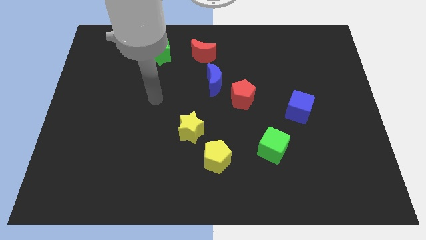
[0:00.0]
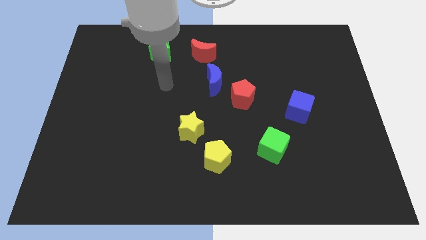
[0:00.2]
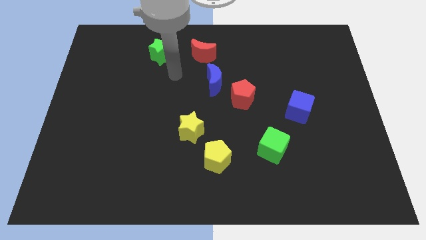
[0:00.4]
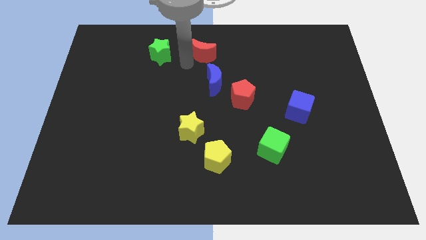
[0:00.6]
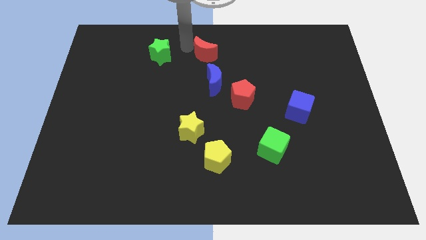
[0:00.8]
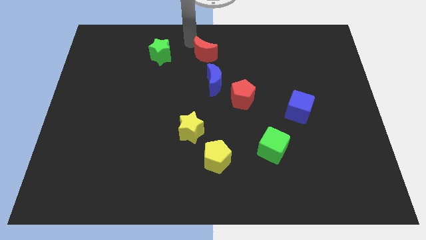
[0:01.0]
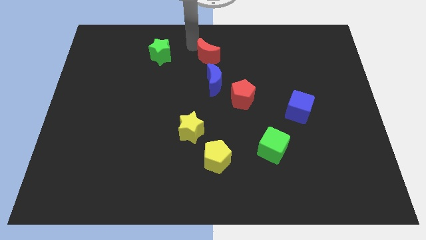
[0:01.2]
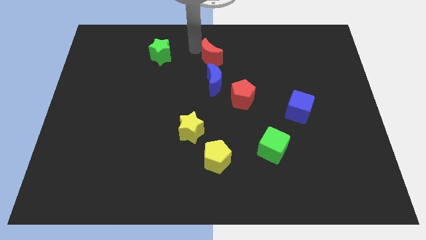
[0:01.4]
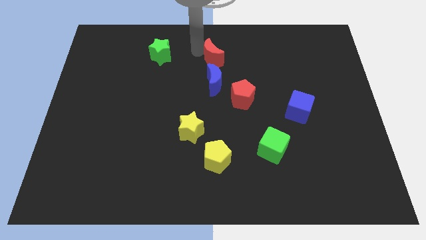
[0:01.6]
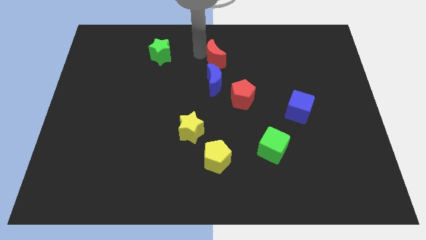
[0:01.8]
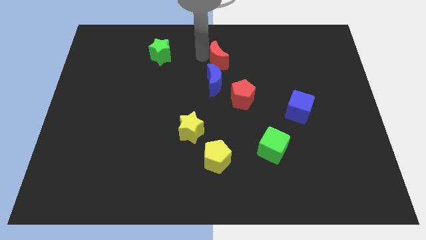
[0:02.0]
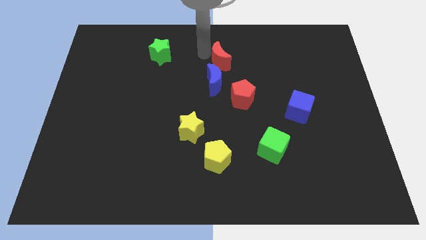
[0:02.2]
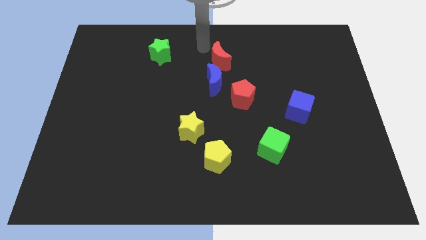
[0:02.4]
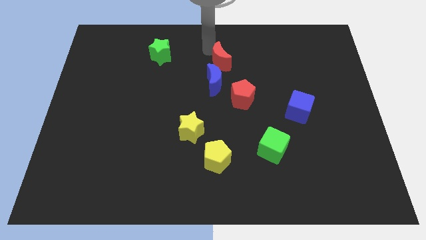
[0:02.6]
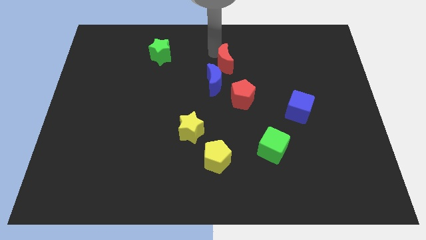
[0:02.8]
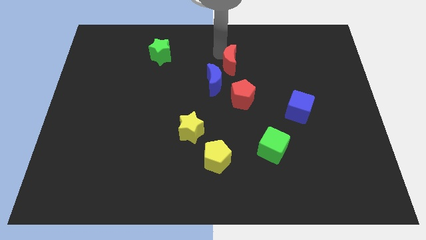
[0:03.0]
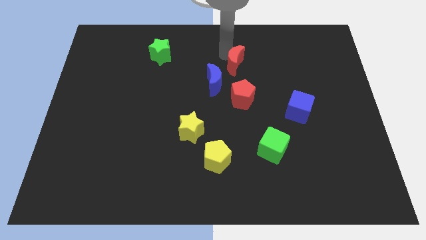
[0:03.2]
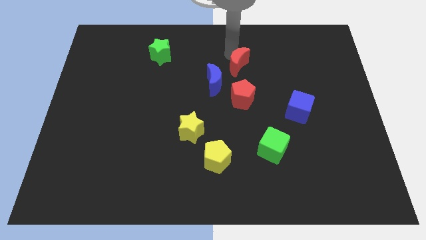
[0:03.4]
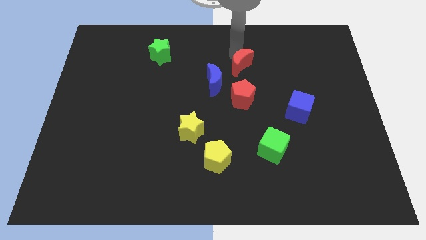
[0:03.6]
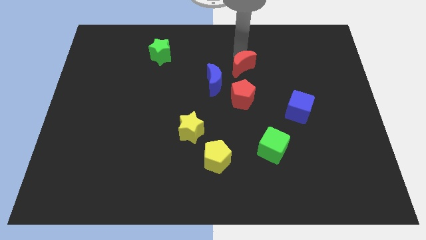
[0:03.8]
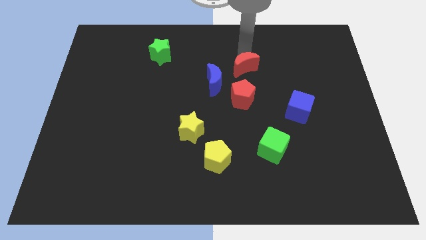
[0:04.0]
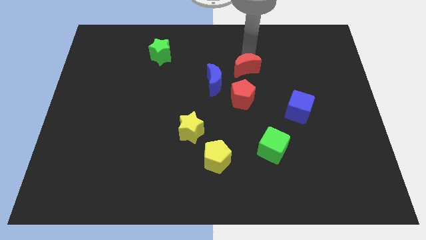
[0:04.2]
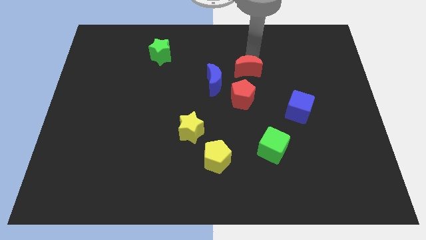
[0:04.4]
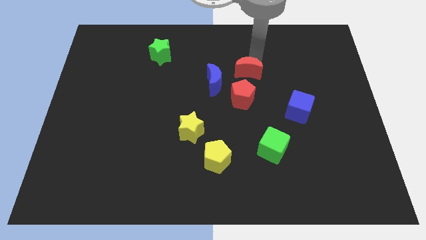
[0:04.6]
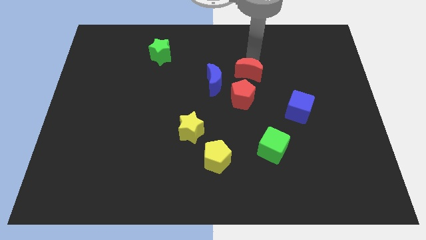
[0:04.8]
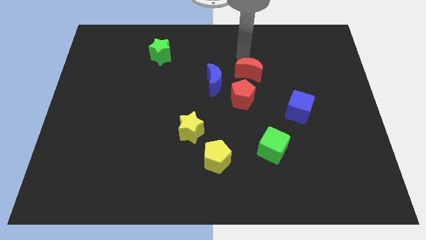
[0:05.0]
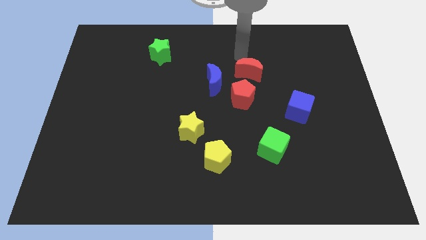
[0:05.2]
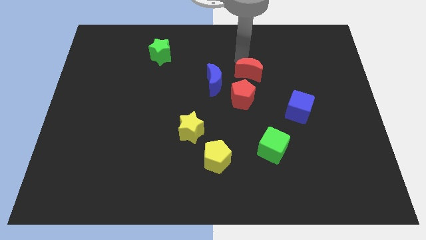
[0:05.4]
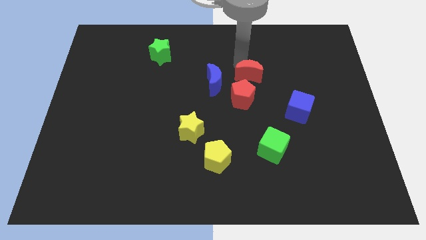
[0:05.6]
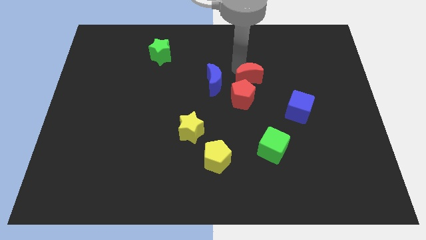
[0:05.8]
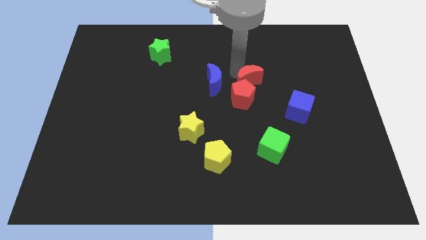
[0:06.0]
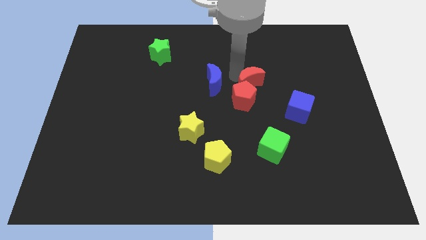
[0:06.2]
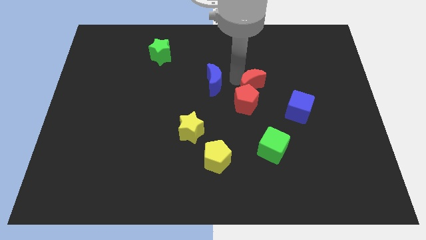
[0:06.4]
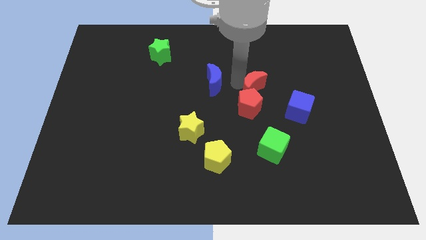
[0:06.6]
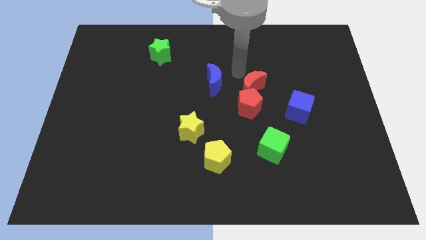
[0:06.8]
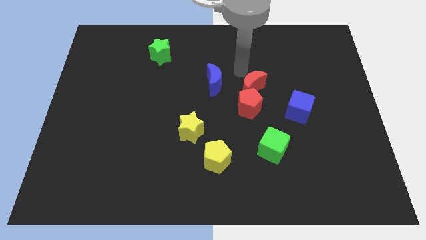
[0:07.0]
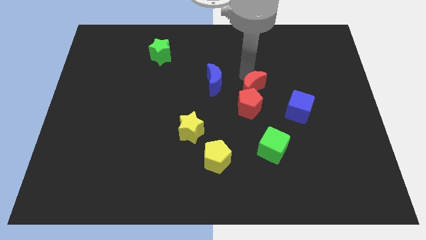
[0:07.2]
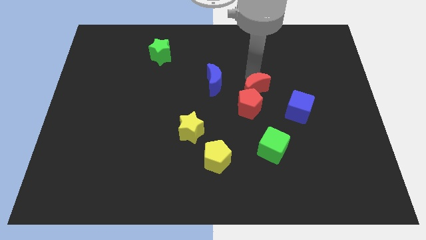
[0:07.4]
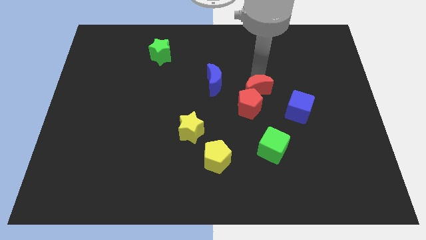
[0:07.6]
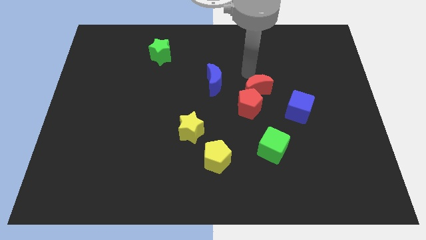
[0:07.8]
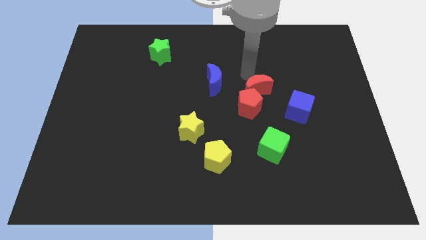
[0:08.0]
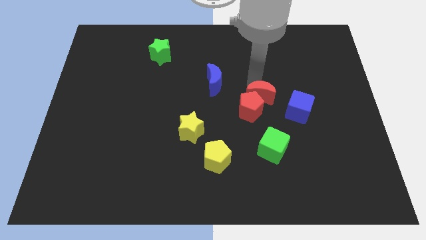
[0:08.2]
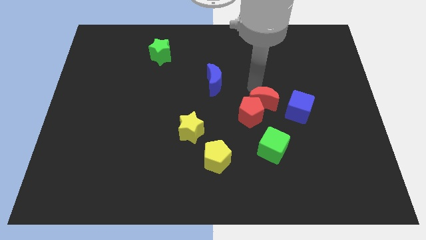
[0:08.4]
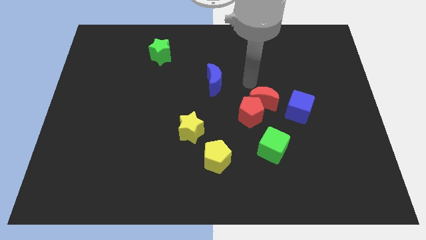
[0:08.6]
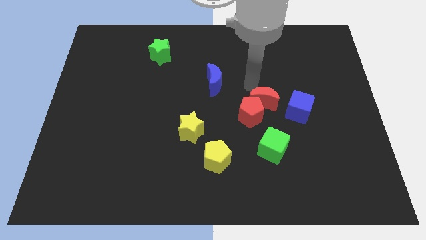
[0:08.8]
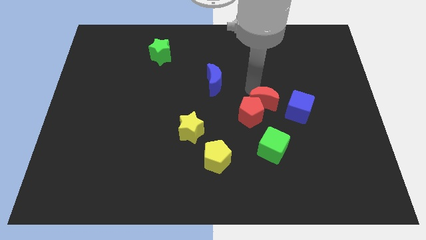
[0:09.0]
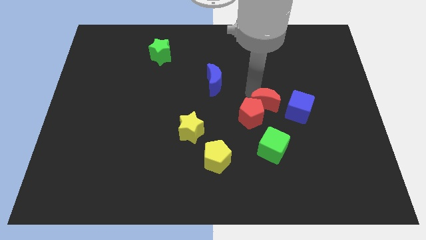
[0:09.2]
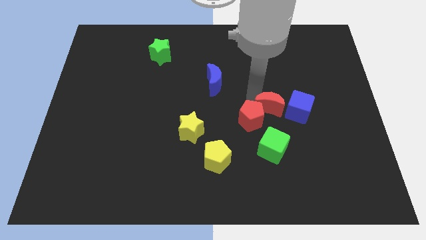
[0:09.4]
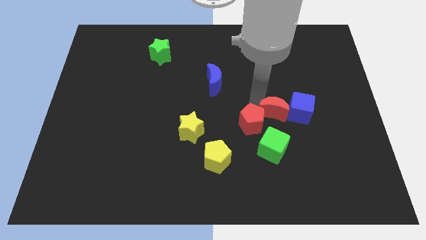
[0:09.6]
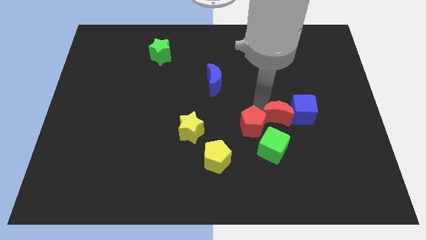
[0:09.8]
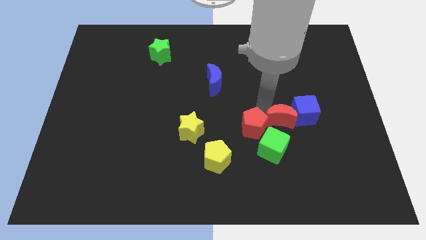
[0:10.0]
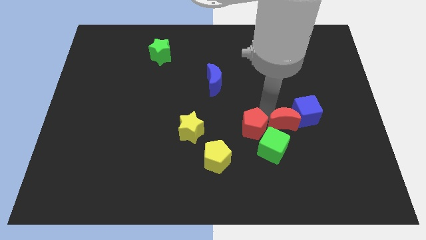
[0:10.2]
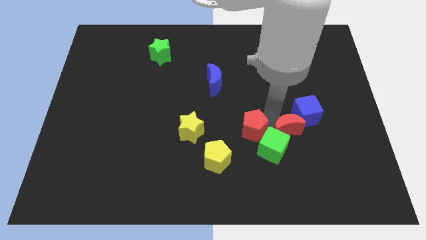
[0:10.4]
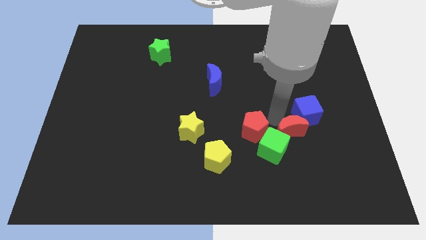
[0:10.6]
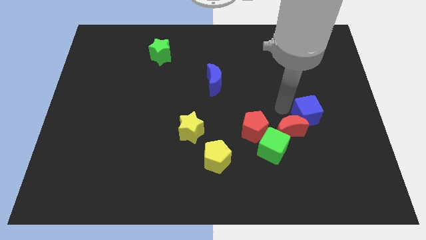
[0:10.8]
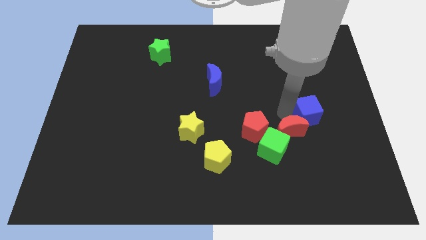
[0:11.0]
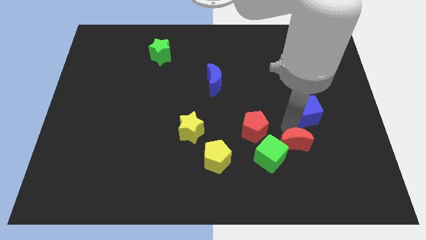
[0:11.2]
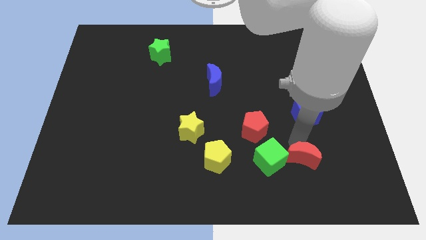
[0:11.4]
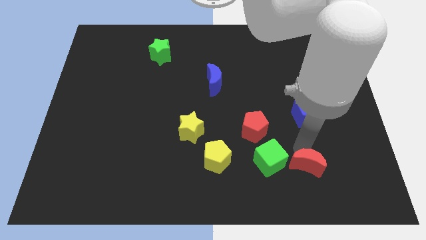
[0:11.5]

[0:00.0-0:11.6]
put the red moon to the bottom right of the green cube

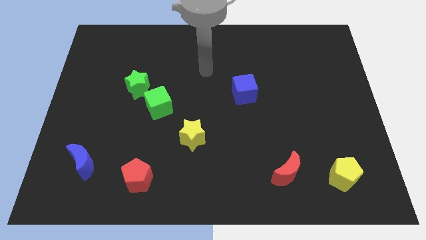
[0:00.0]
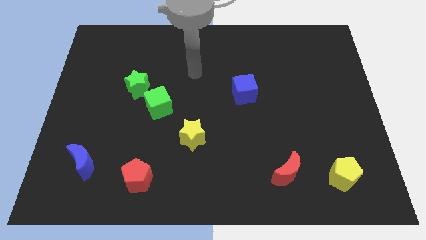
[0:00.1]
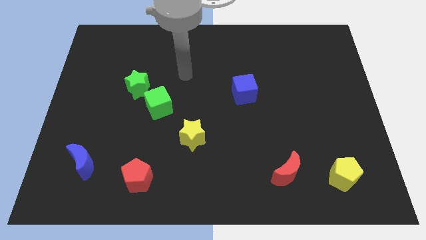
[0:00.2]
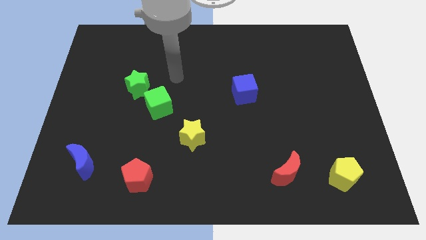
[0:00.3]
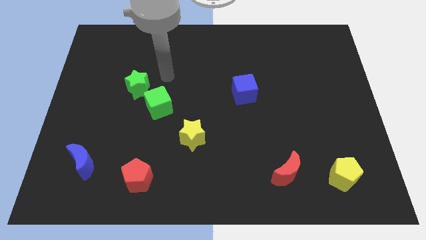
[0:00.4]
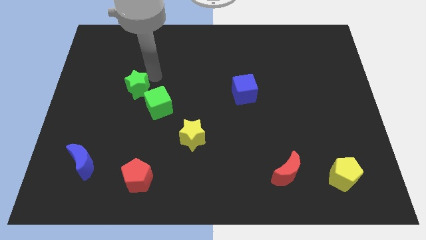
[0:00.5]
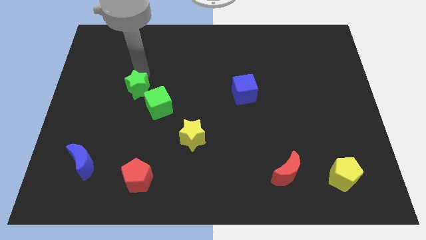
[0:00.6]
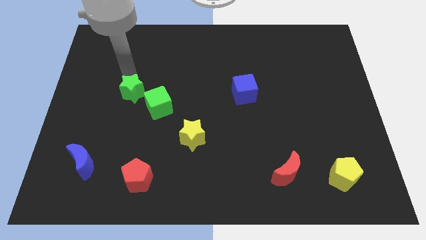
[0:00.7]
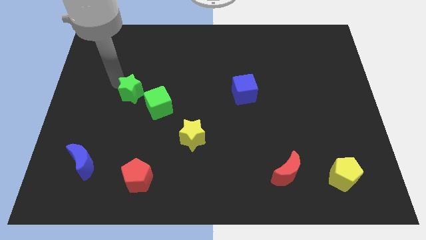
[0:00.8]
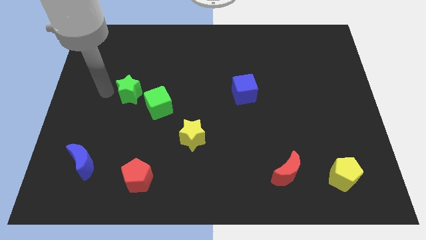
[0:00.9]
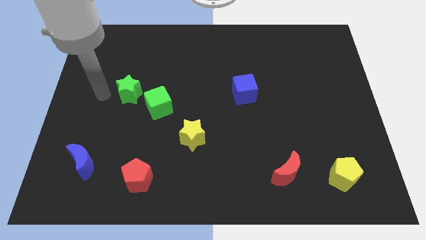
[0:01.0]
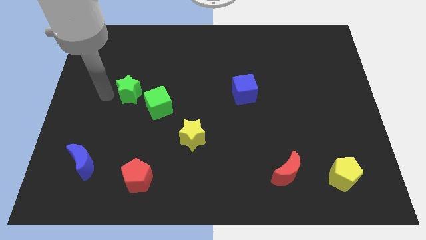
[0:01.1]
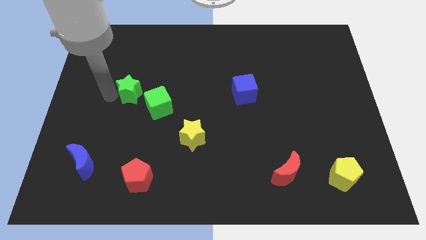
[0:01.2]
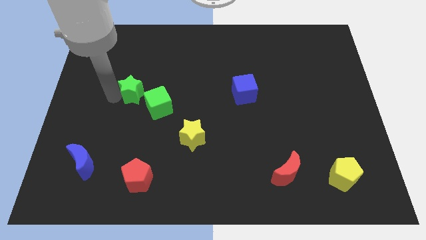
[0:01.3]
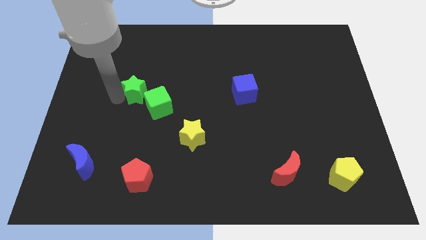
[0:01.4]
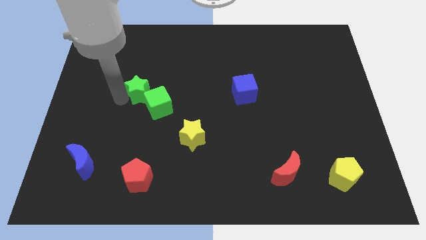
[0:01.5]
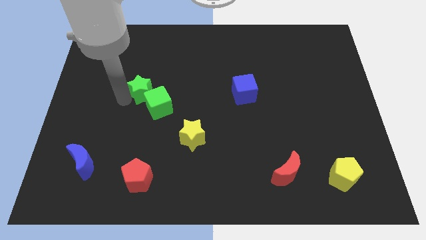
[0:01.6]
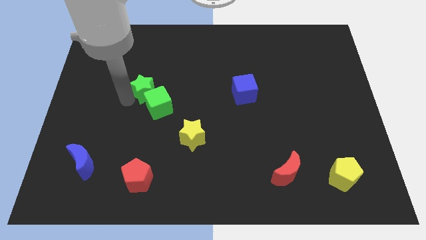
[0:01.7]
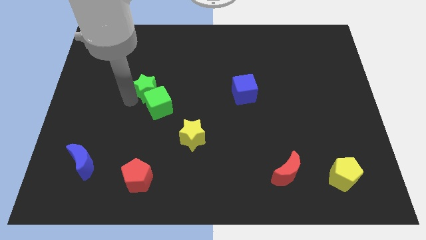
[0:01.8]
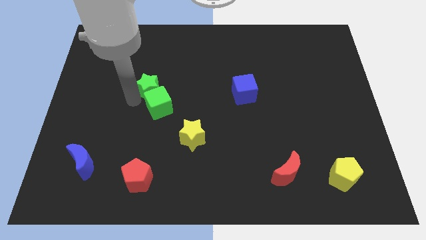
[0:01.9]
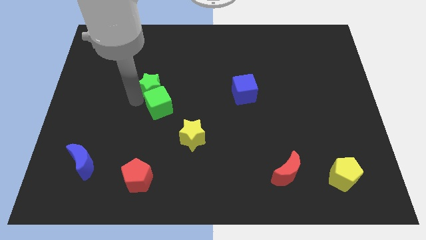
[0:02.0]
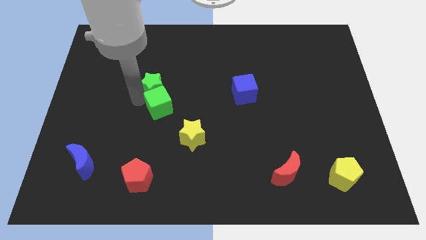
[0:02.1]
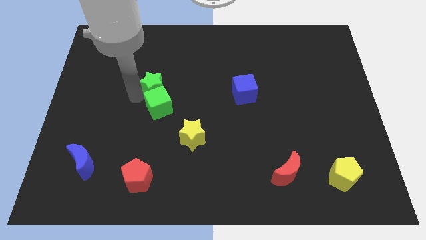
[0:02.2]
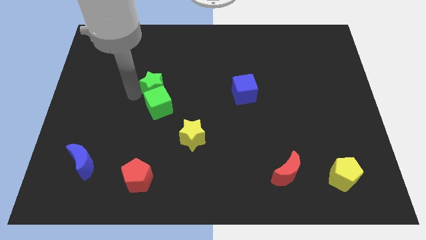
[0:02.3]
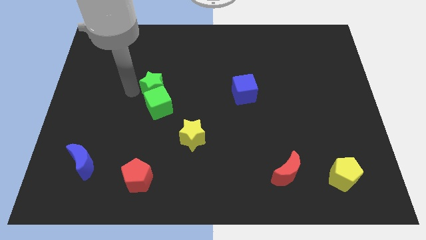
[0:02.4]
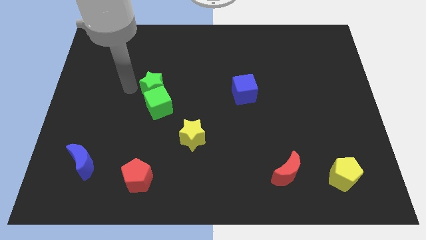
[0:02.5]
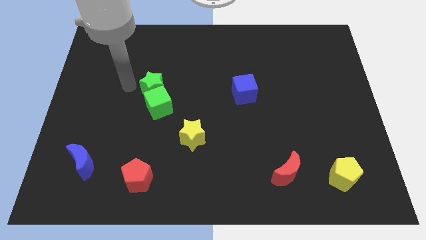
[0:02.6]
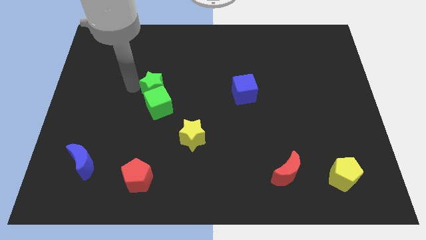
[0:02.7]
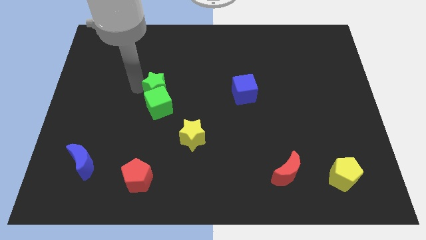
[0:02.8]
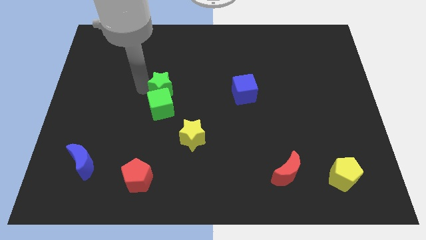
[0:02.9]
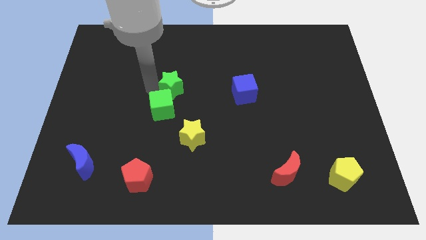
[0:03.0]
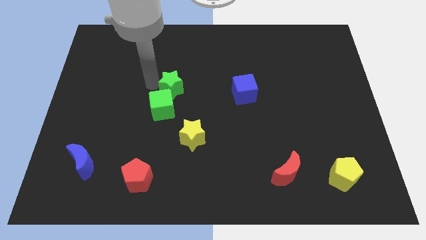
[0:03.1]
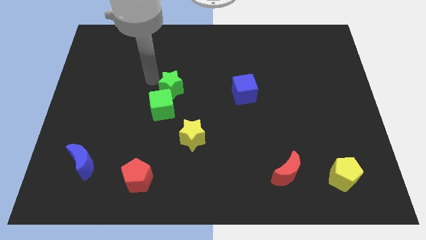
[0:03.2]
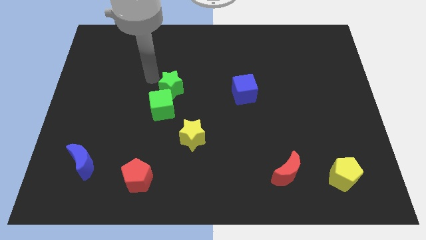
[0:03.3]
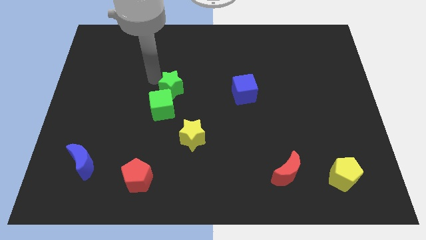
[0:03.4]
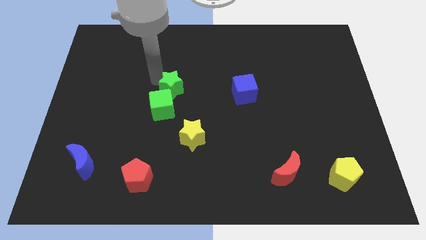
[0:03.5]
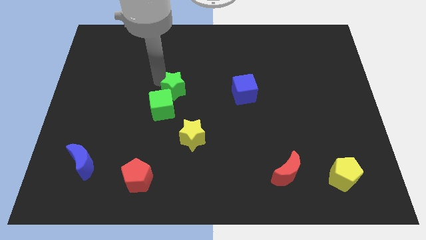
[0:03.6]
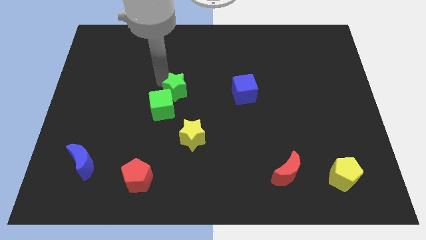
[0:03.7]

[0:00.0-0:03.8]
put the green star to the top of the yellow star
